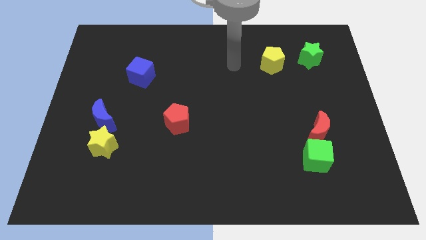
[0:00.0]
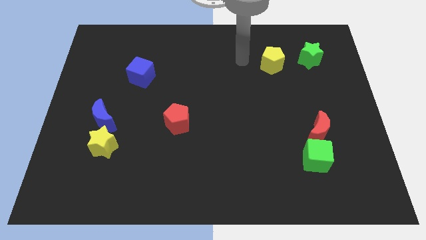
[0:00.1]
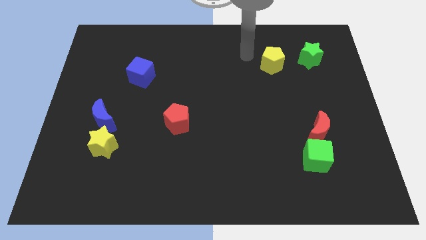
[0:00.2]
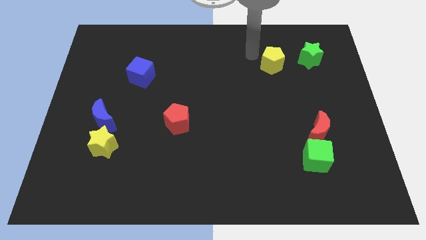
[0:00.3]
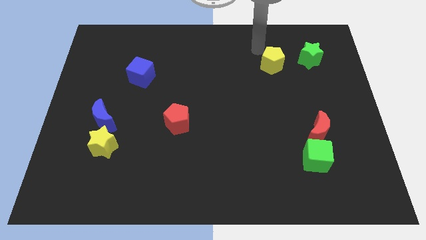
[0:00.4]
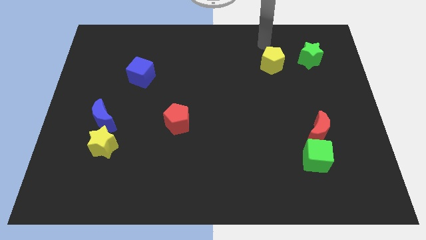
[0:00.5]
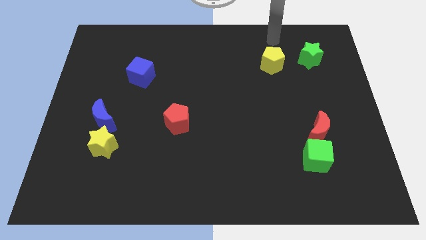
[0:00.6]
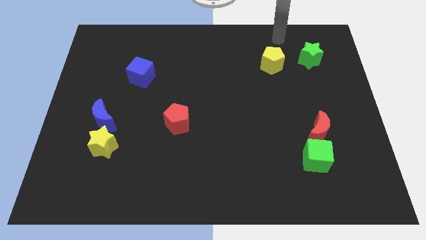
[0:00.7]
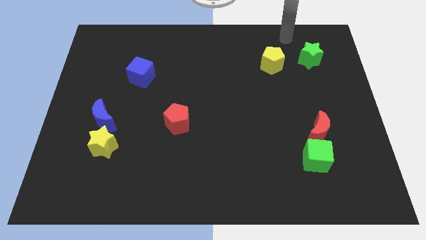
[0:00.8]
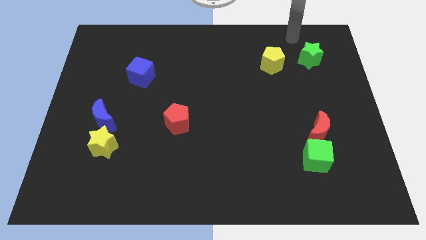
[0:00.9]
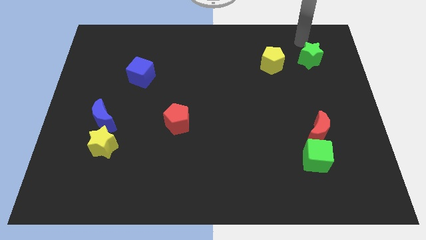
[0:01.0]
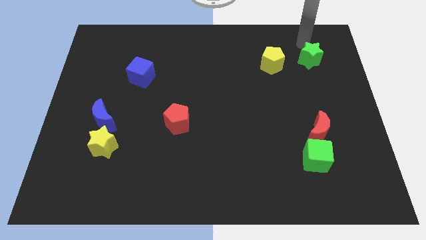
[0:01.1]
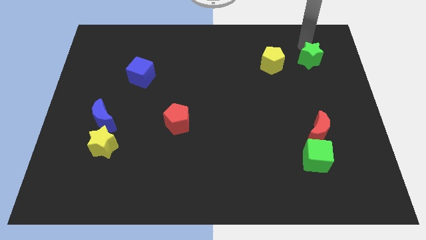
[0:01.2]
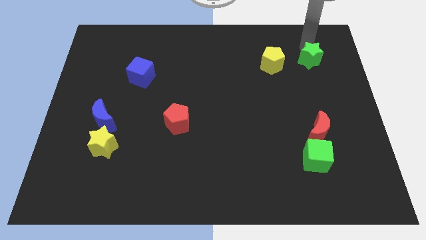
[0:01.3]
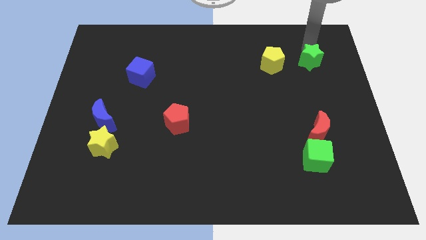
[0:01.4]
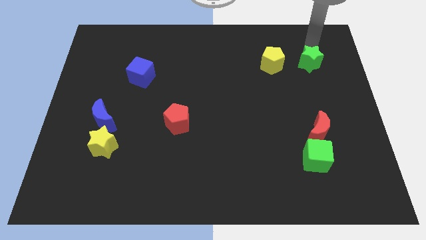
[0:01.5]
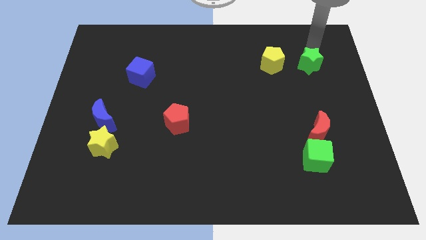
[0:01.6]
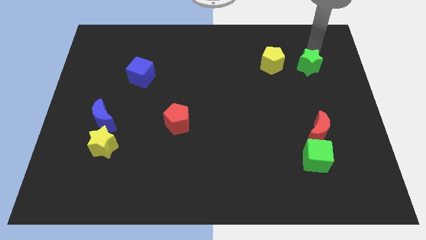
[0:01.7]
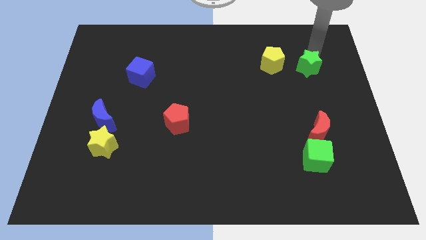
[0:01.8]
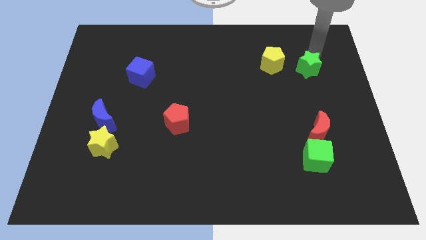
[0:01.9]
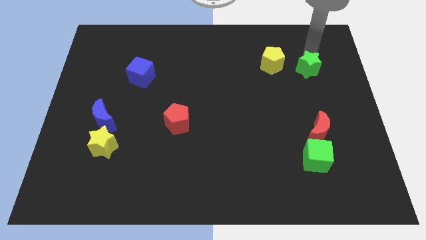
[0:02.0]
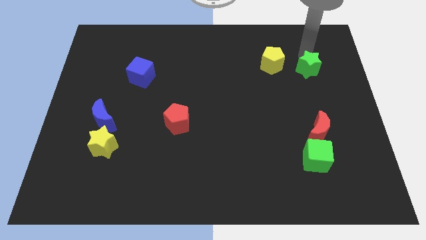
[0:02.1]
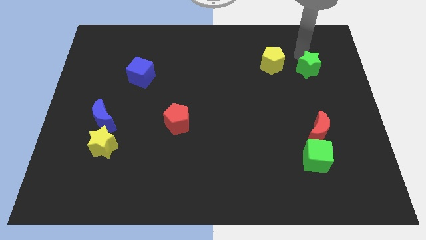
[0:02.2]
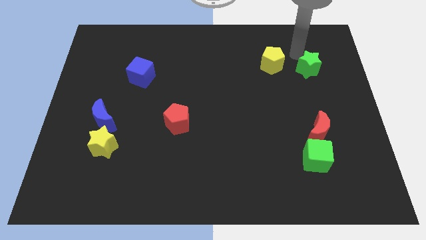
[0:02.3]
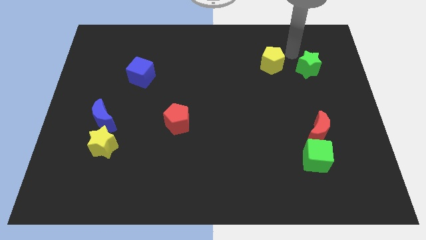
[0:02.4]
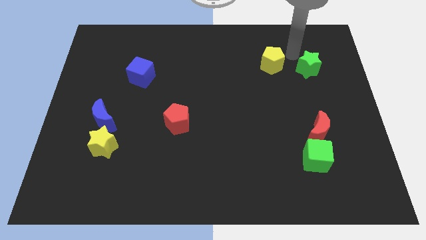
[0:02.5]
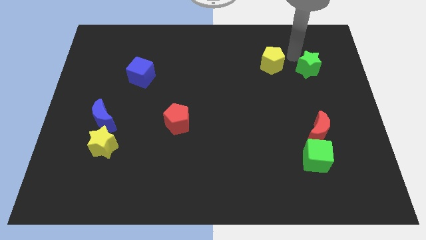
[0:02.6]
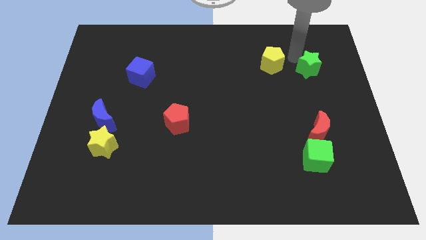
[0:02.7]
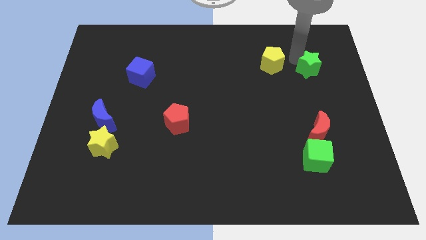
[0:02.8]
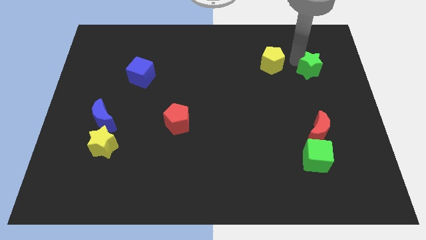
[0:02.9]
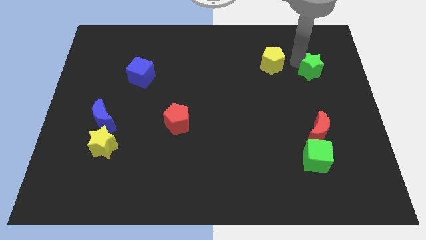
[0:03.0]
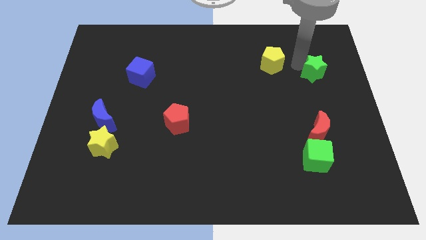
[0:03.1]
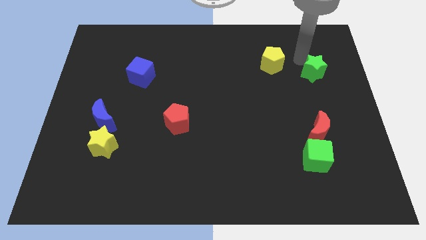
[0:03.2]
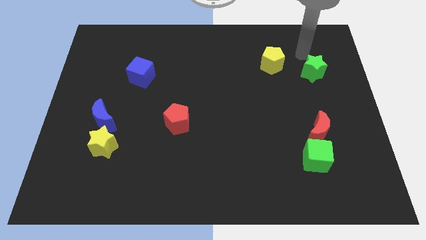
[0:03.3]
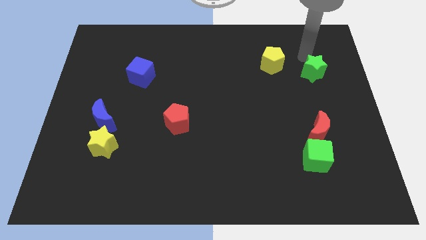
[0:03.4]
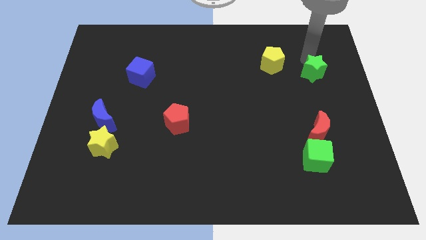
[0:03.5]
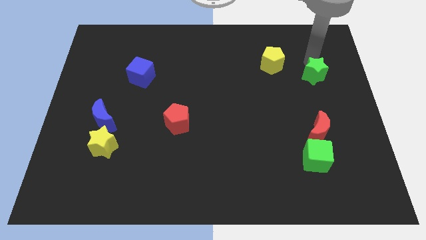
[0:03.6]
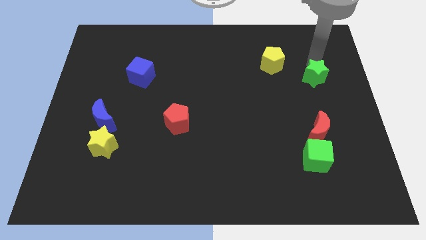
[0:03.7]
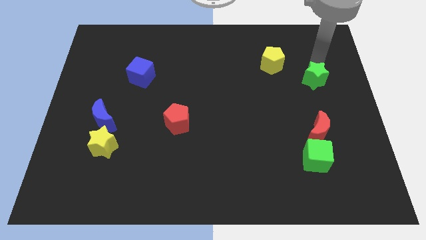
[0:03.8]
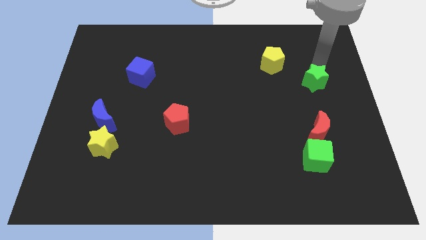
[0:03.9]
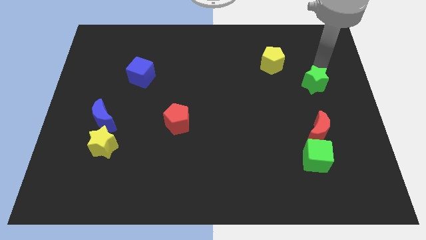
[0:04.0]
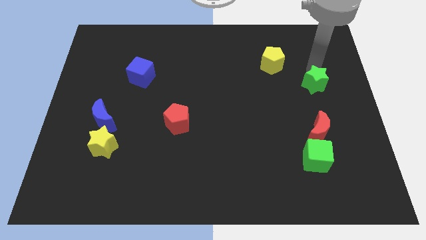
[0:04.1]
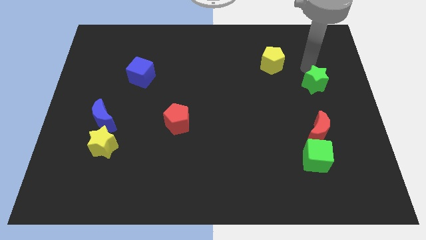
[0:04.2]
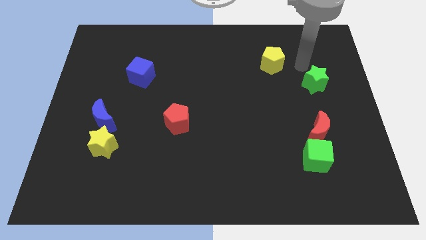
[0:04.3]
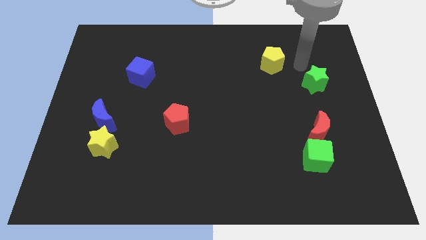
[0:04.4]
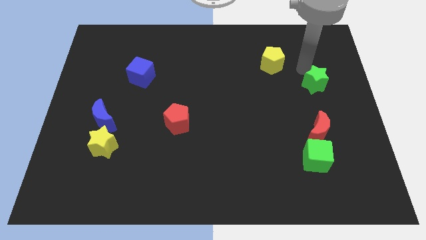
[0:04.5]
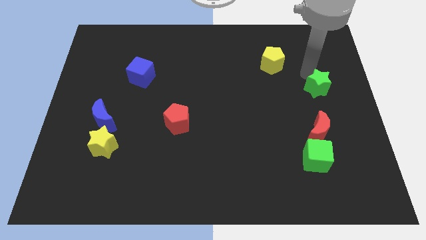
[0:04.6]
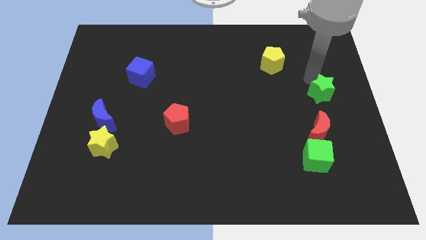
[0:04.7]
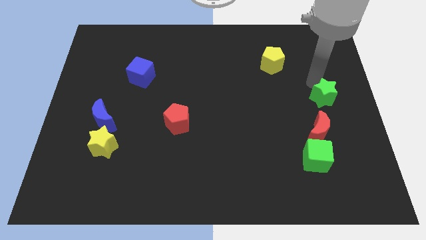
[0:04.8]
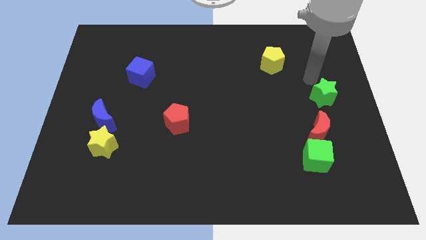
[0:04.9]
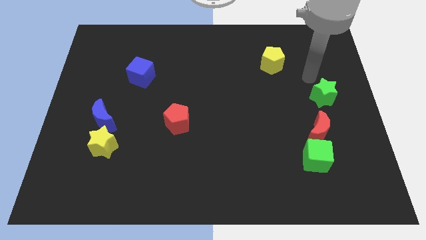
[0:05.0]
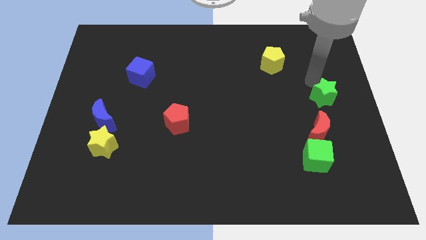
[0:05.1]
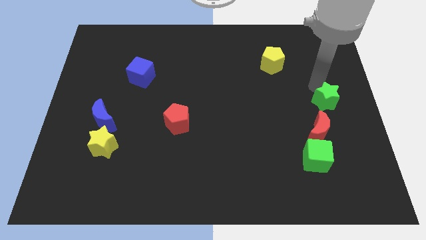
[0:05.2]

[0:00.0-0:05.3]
slide the green star to the top right of the red moon

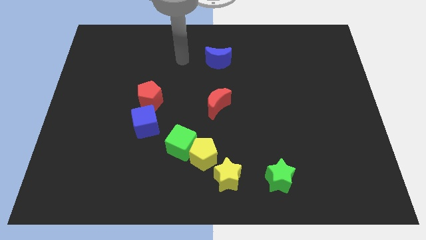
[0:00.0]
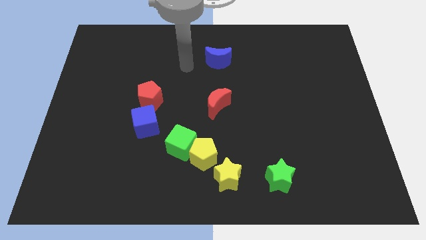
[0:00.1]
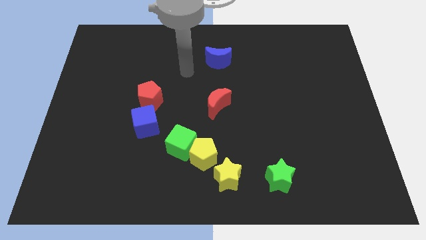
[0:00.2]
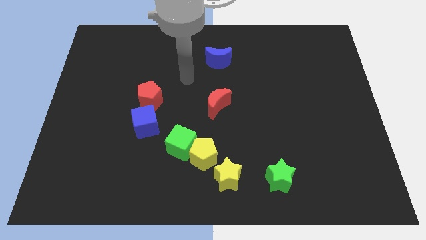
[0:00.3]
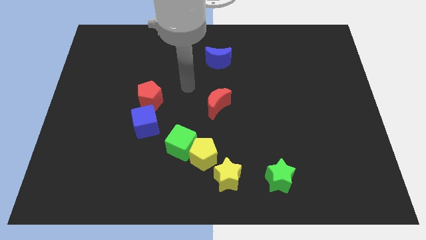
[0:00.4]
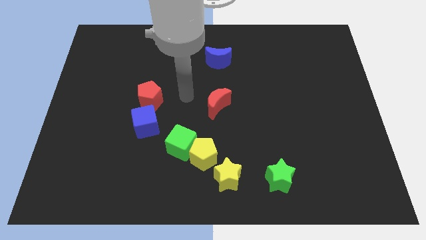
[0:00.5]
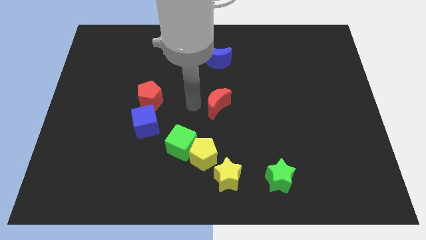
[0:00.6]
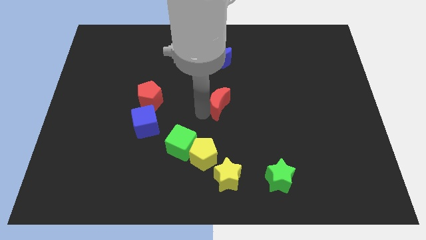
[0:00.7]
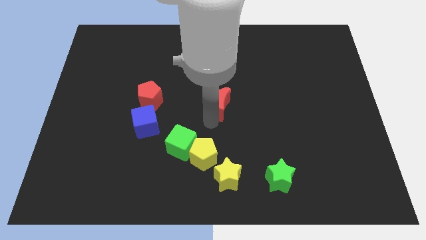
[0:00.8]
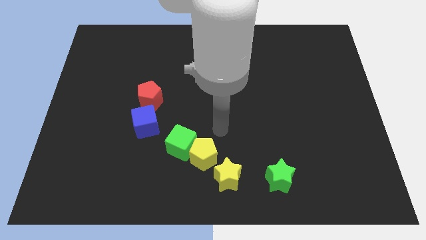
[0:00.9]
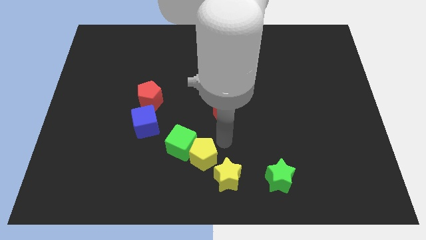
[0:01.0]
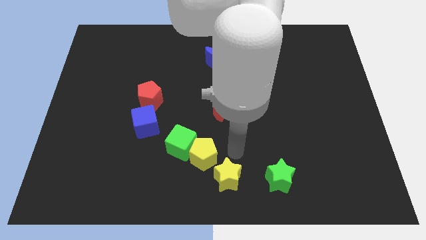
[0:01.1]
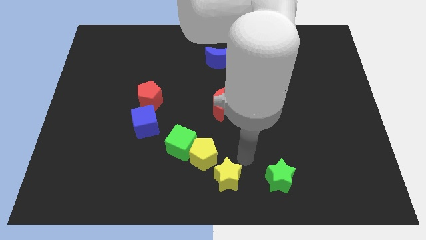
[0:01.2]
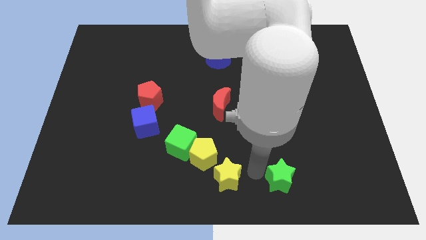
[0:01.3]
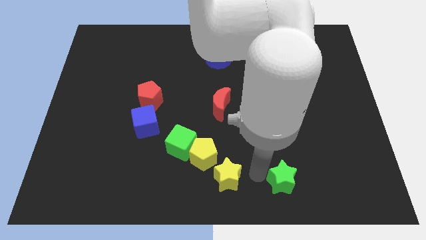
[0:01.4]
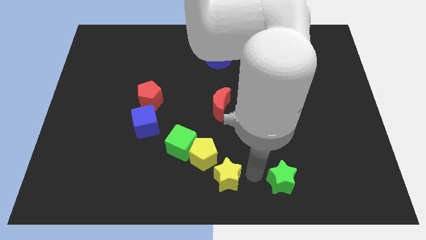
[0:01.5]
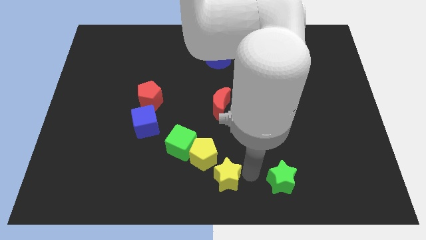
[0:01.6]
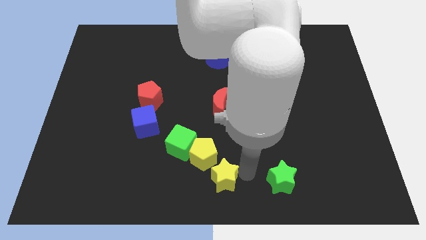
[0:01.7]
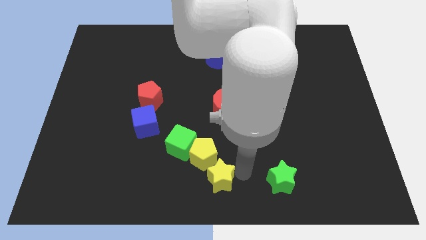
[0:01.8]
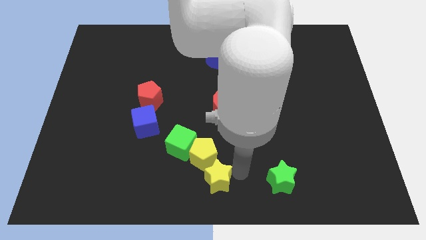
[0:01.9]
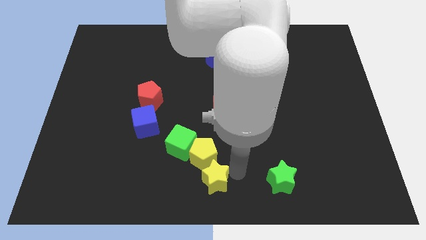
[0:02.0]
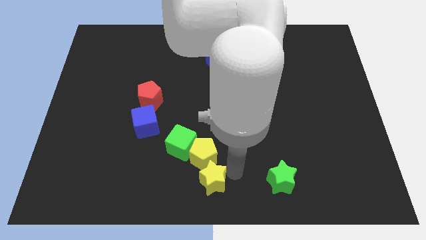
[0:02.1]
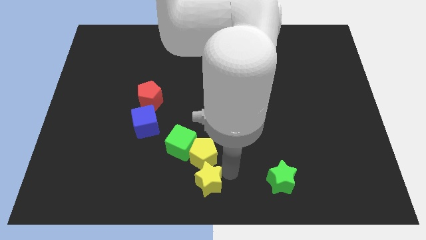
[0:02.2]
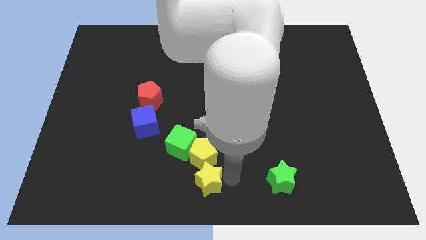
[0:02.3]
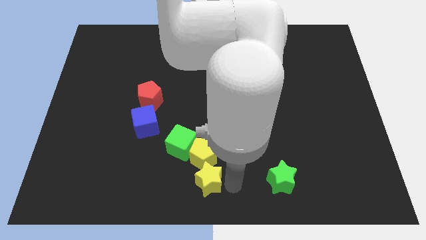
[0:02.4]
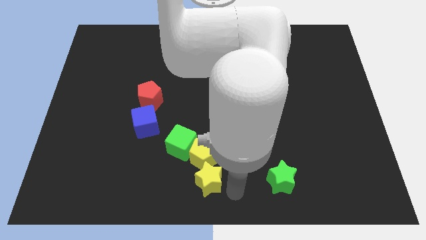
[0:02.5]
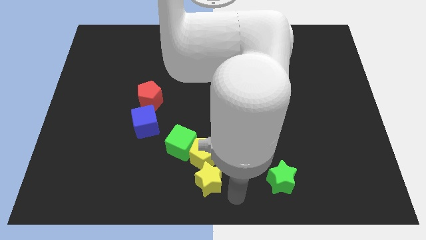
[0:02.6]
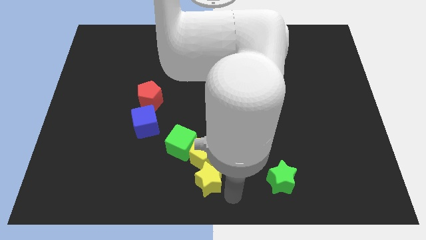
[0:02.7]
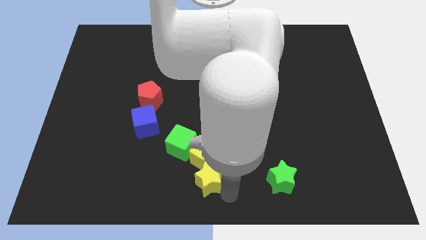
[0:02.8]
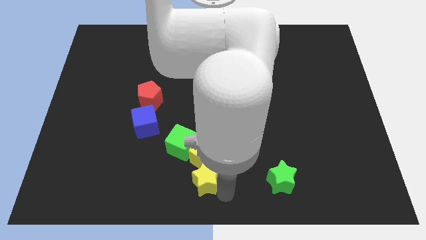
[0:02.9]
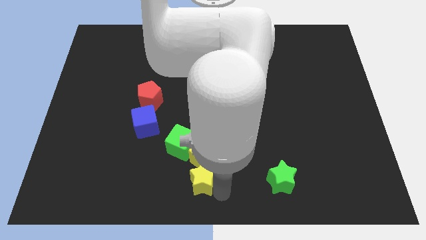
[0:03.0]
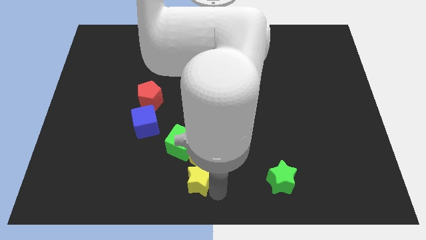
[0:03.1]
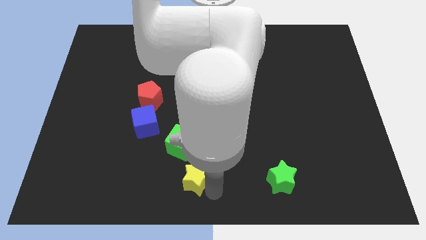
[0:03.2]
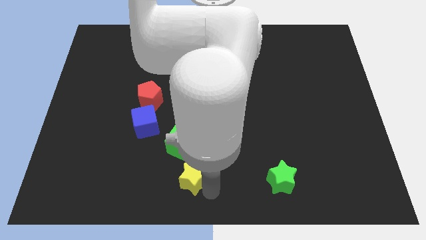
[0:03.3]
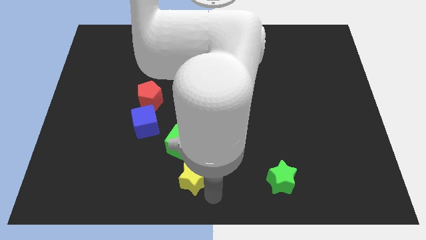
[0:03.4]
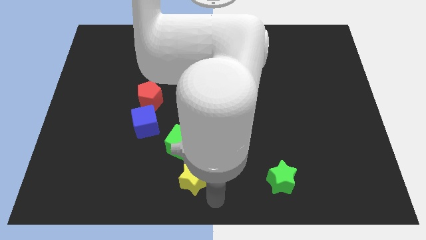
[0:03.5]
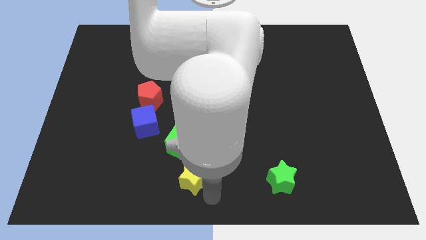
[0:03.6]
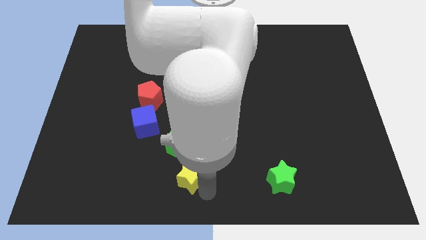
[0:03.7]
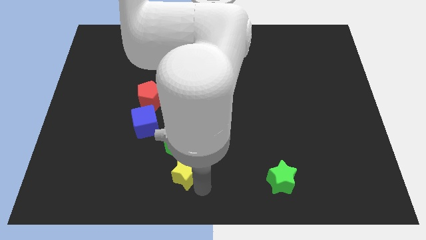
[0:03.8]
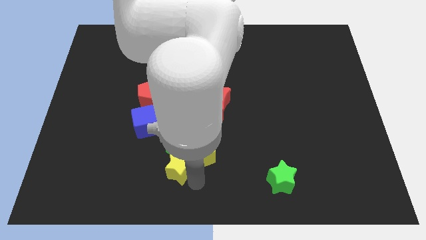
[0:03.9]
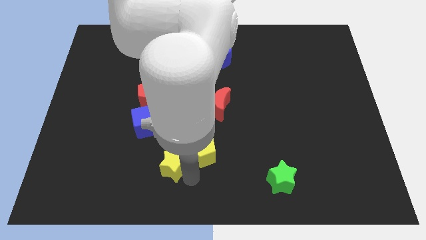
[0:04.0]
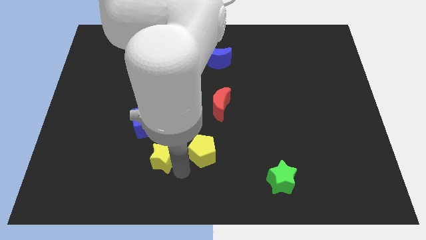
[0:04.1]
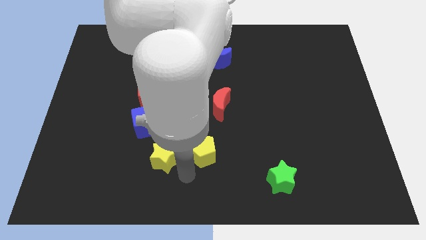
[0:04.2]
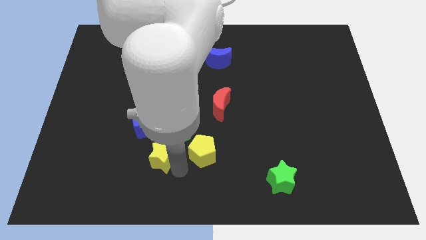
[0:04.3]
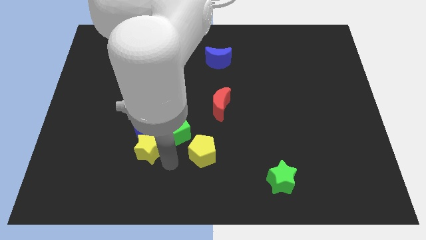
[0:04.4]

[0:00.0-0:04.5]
move the yellow star to the left side of the green cube
